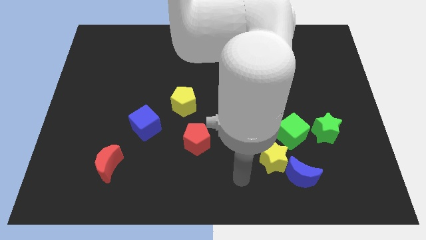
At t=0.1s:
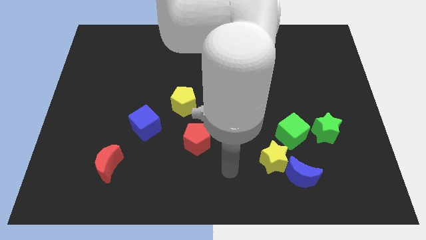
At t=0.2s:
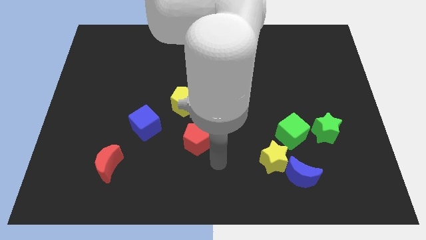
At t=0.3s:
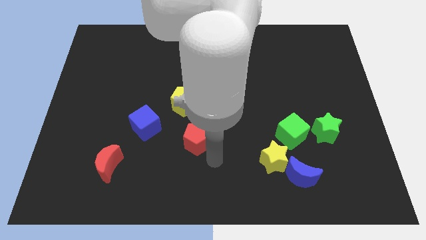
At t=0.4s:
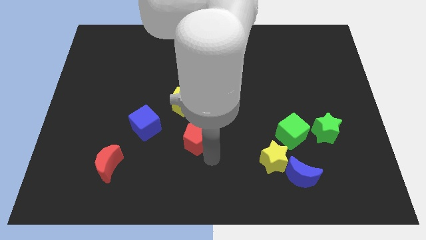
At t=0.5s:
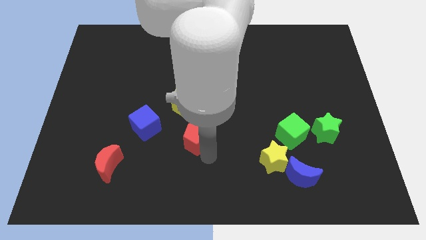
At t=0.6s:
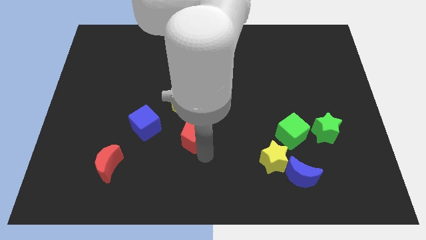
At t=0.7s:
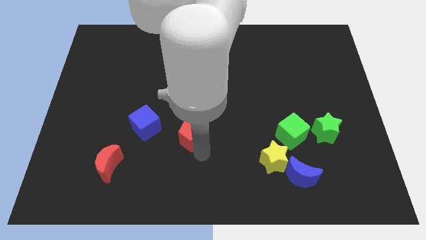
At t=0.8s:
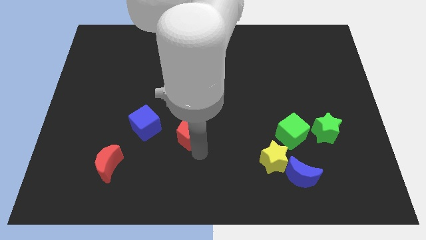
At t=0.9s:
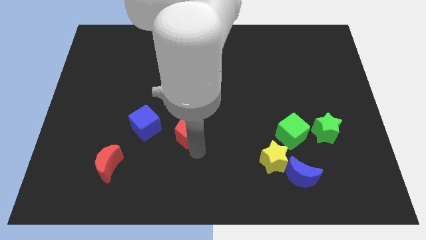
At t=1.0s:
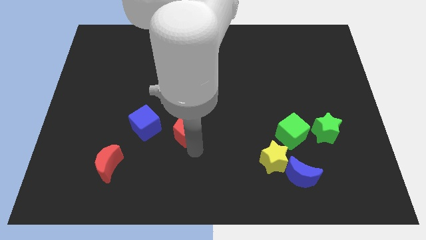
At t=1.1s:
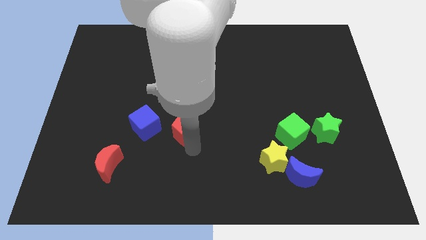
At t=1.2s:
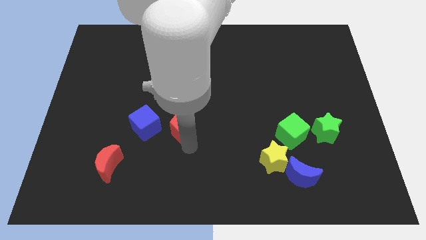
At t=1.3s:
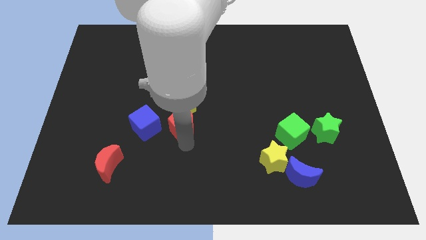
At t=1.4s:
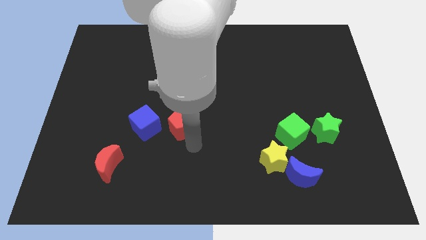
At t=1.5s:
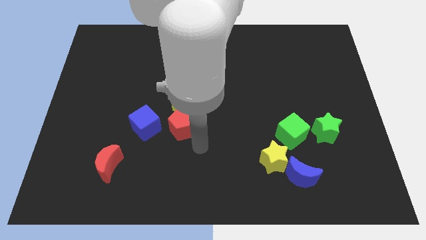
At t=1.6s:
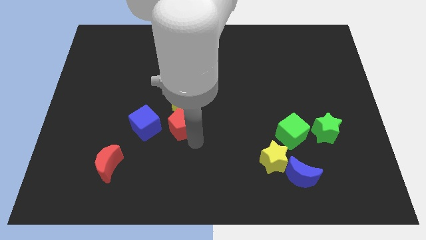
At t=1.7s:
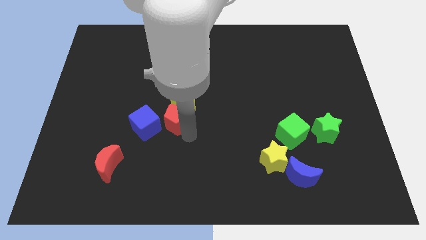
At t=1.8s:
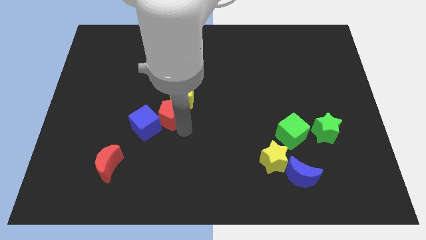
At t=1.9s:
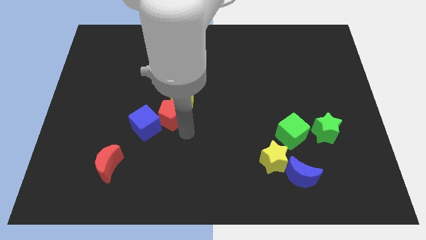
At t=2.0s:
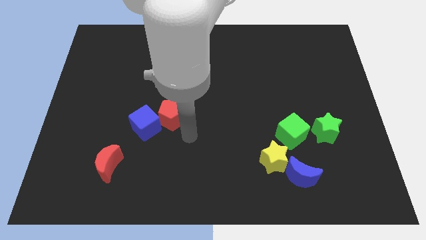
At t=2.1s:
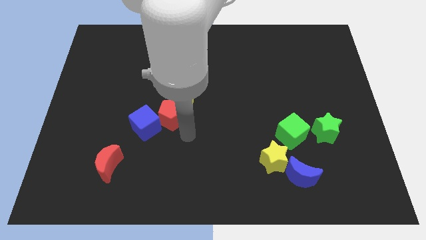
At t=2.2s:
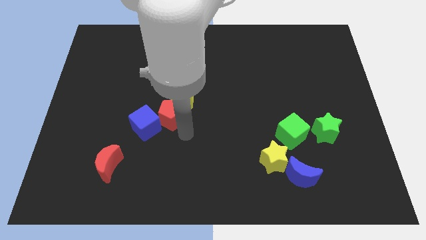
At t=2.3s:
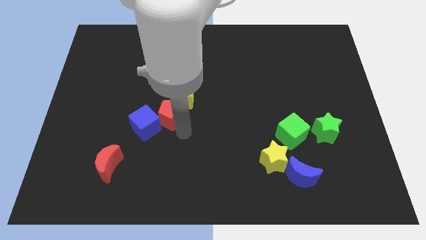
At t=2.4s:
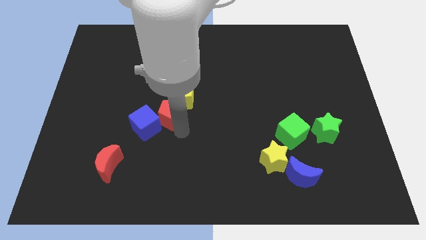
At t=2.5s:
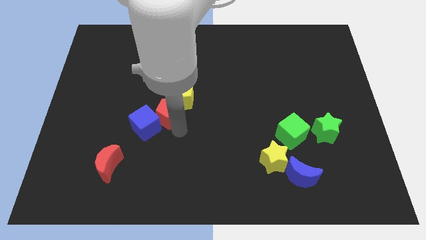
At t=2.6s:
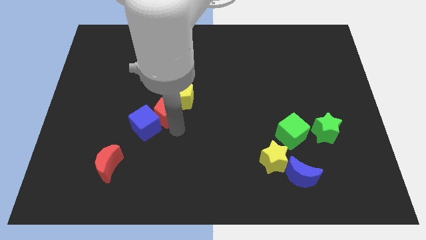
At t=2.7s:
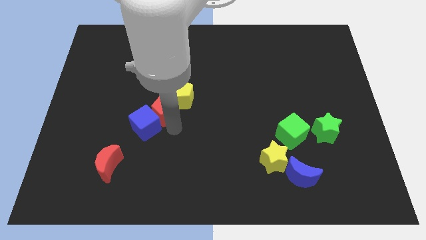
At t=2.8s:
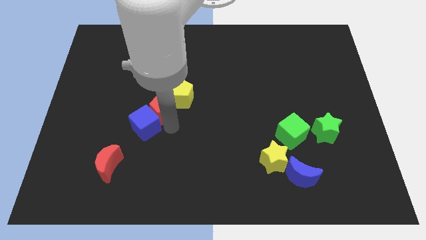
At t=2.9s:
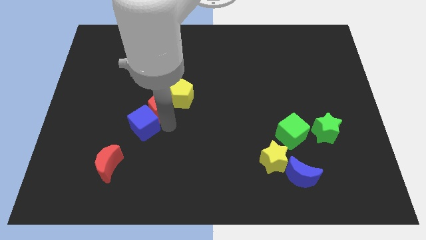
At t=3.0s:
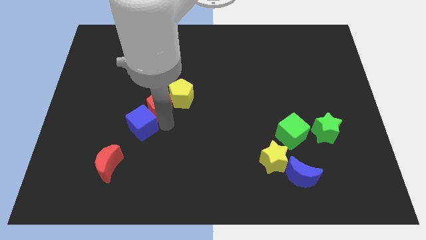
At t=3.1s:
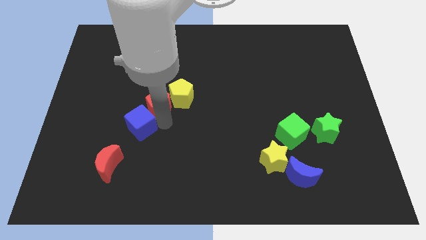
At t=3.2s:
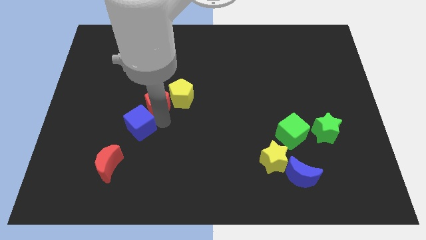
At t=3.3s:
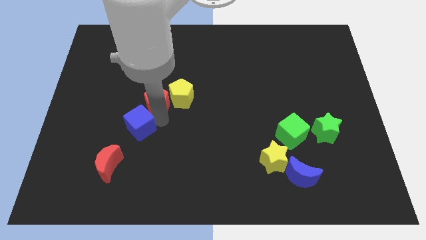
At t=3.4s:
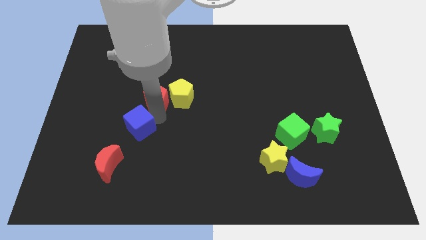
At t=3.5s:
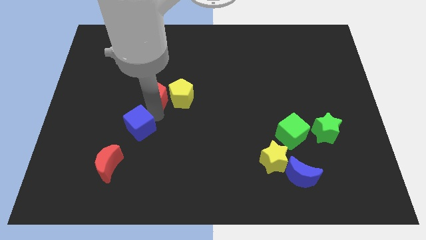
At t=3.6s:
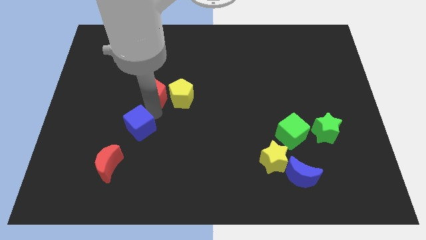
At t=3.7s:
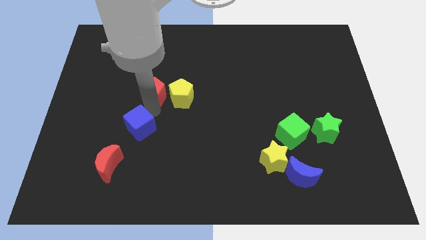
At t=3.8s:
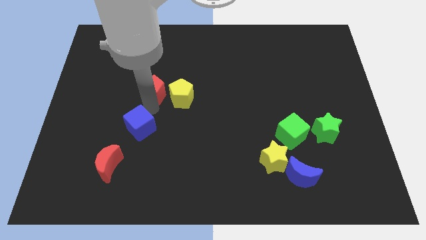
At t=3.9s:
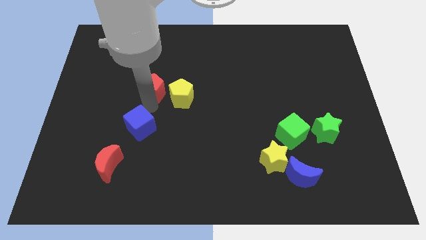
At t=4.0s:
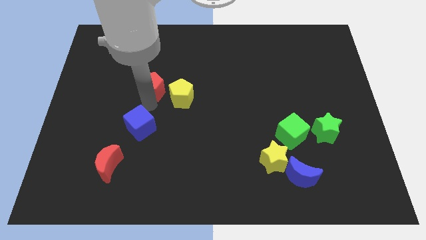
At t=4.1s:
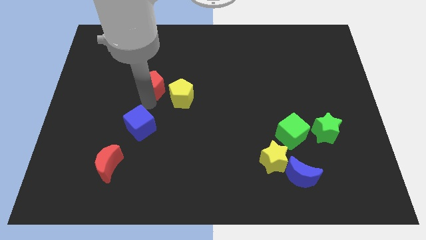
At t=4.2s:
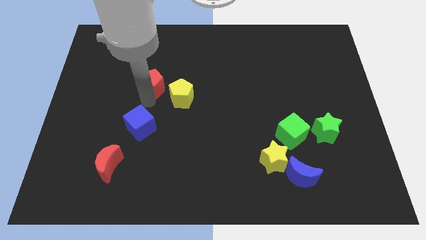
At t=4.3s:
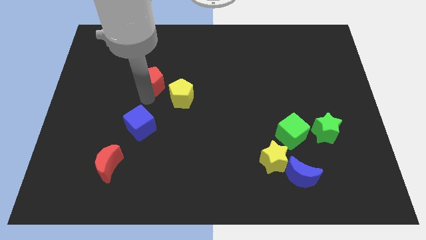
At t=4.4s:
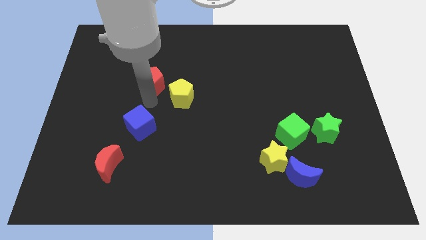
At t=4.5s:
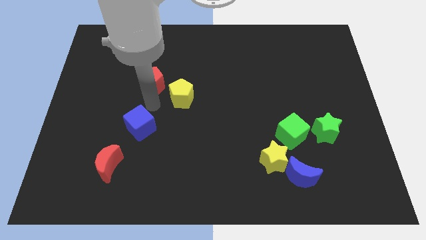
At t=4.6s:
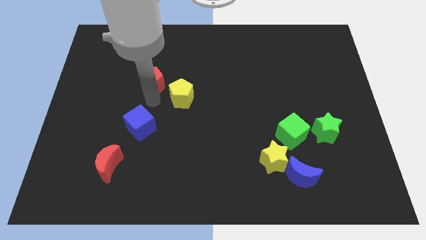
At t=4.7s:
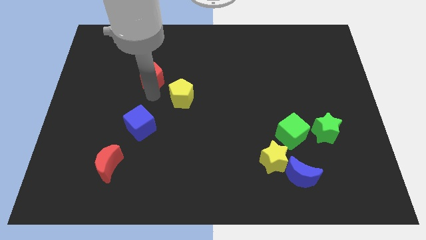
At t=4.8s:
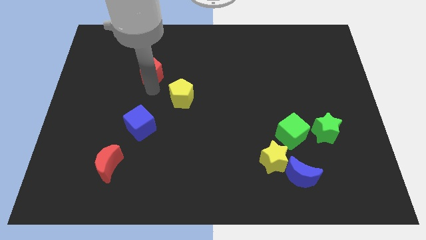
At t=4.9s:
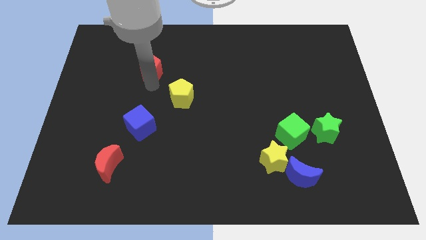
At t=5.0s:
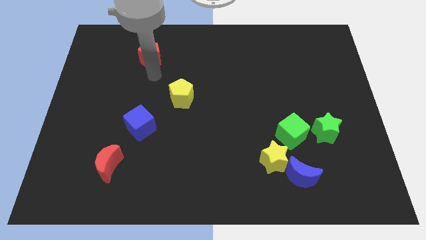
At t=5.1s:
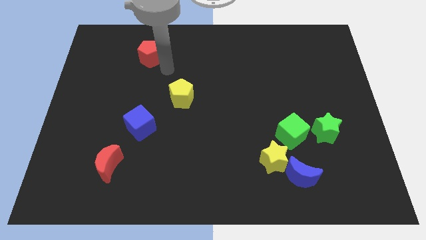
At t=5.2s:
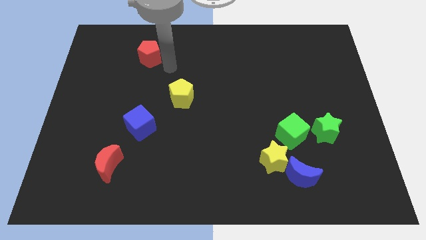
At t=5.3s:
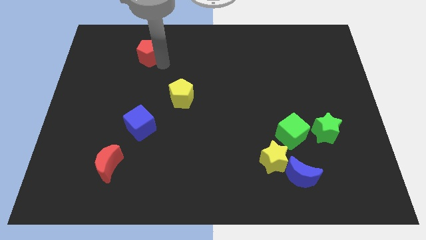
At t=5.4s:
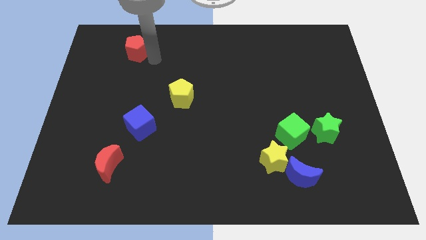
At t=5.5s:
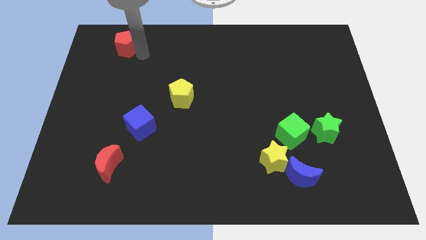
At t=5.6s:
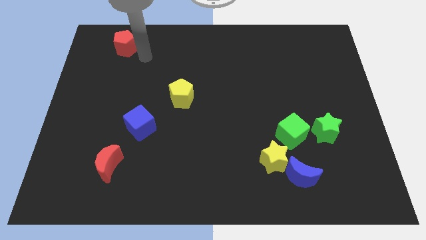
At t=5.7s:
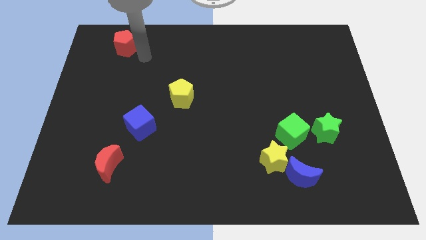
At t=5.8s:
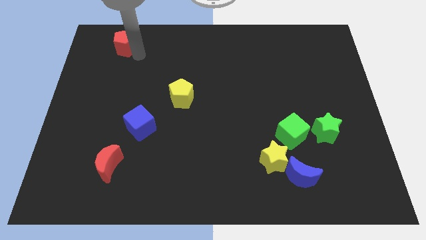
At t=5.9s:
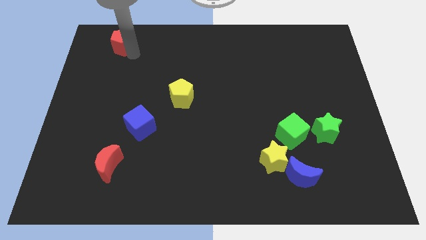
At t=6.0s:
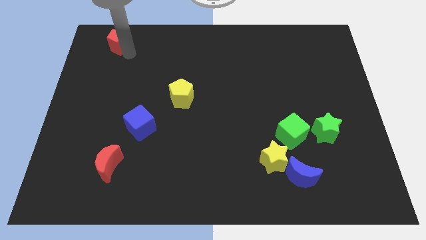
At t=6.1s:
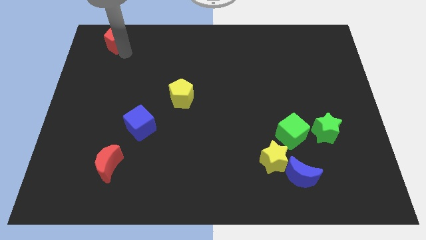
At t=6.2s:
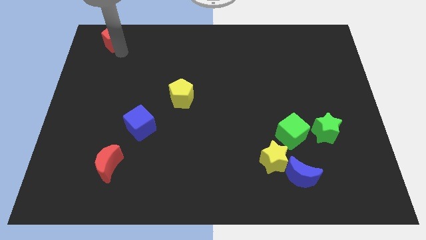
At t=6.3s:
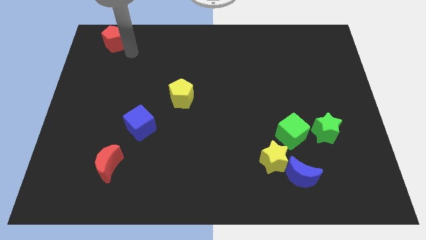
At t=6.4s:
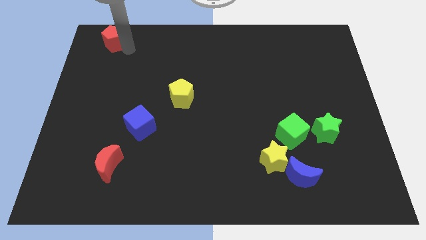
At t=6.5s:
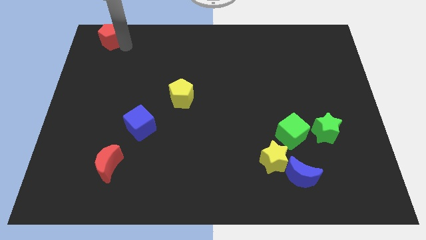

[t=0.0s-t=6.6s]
slide the red pentagon to the top left corner

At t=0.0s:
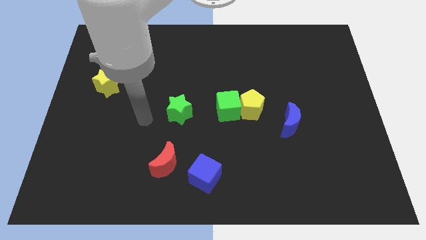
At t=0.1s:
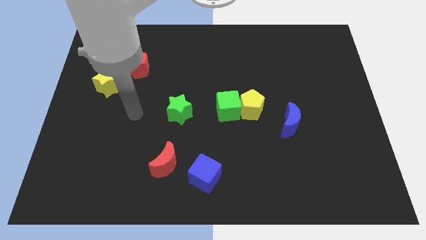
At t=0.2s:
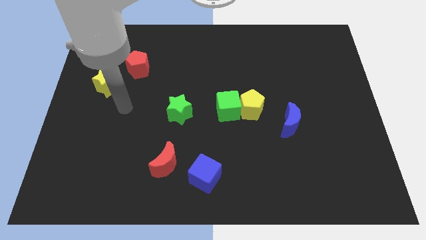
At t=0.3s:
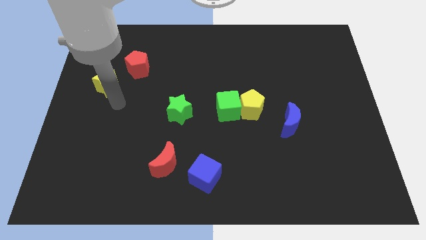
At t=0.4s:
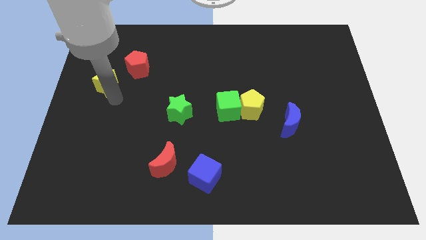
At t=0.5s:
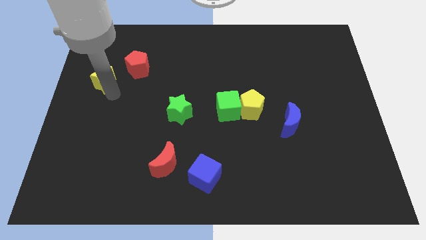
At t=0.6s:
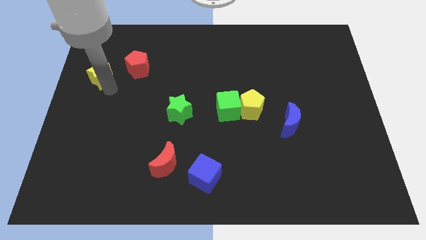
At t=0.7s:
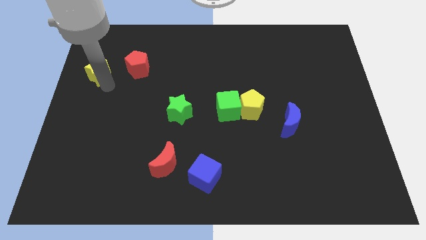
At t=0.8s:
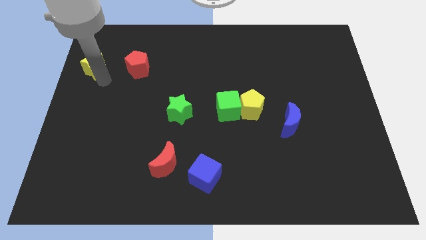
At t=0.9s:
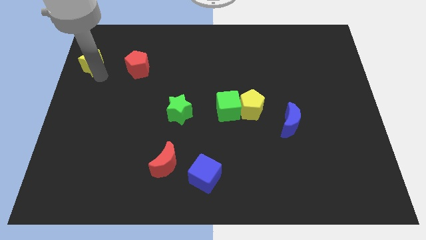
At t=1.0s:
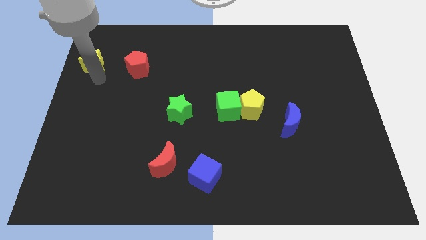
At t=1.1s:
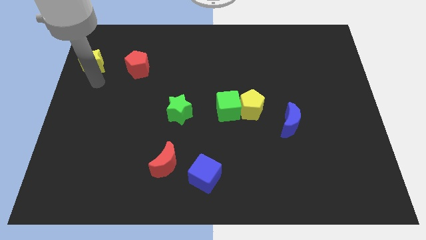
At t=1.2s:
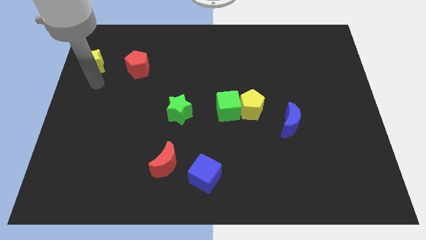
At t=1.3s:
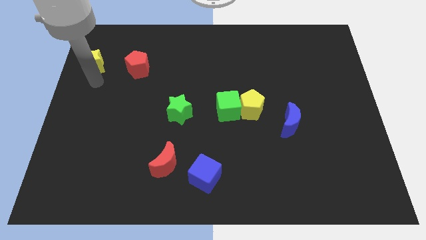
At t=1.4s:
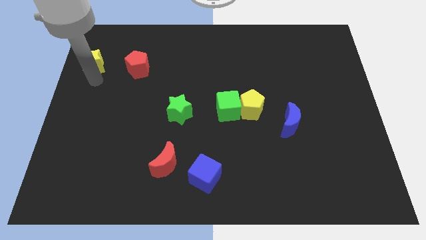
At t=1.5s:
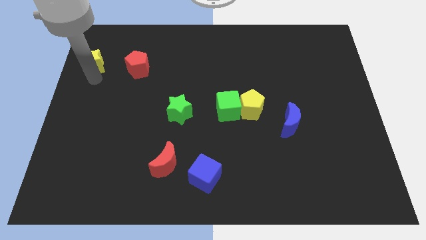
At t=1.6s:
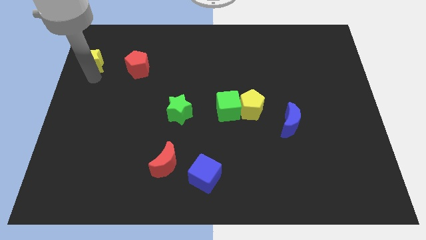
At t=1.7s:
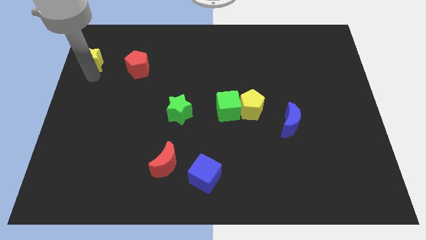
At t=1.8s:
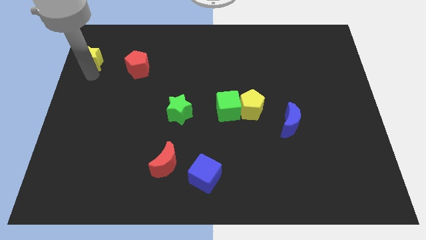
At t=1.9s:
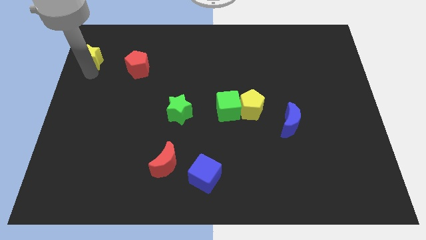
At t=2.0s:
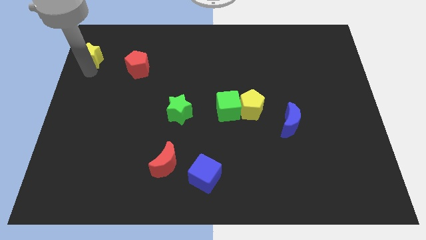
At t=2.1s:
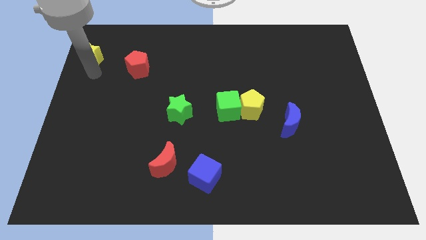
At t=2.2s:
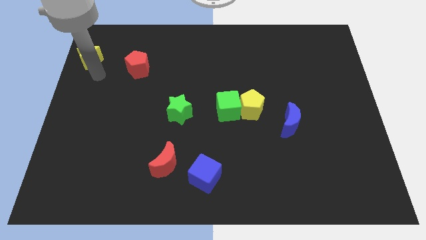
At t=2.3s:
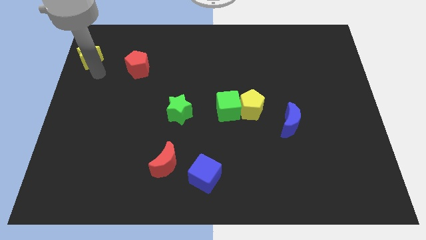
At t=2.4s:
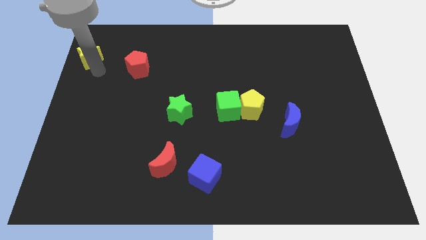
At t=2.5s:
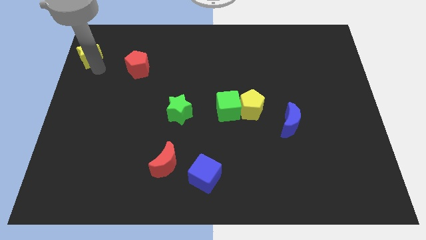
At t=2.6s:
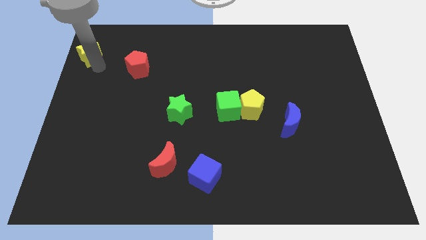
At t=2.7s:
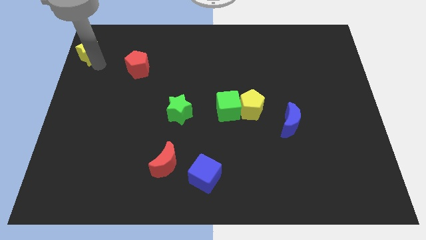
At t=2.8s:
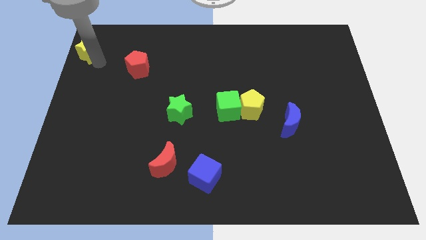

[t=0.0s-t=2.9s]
push the yellow star to the upper left corner
